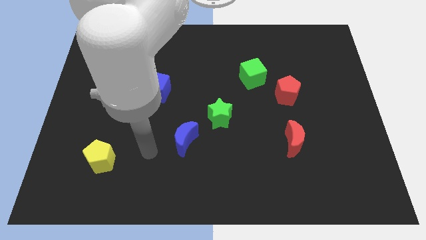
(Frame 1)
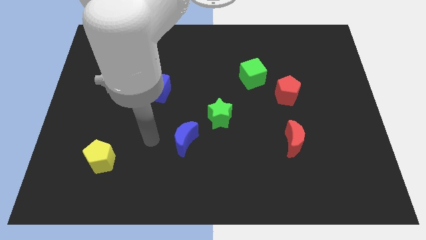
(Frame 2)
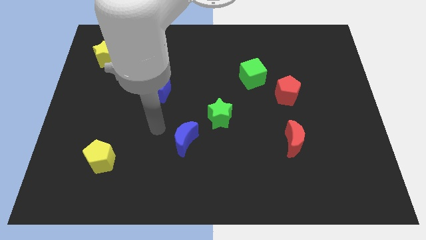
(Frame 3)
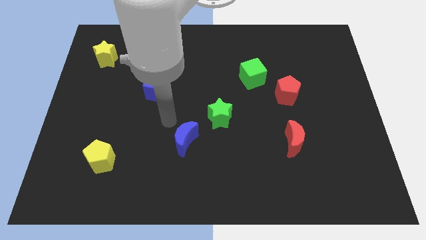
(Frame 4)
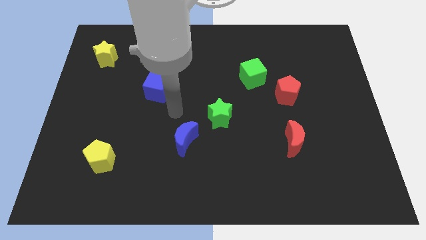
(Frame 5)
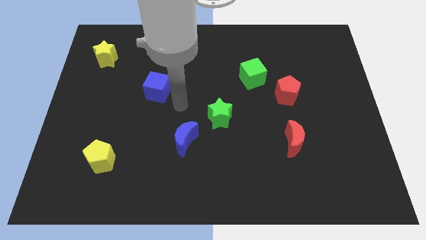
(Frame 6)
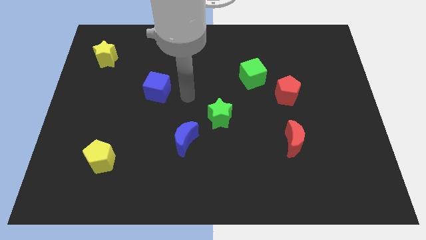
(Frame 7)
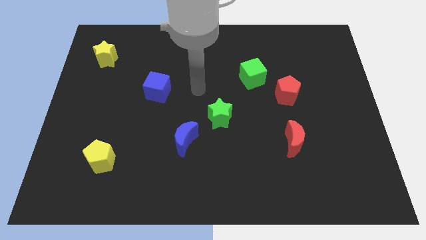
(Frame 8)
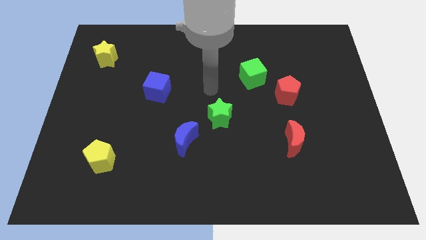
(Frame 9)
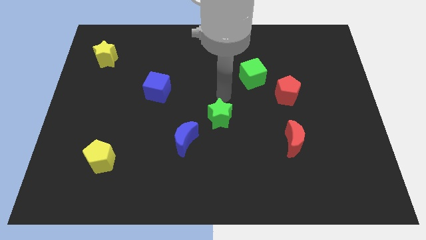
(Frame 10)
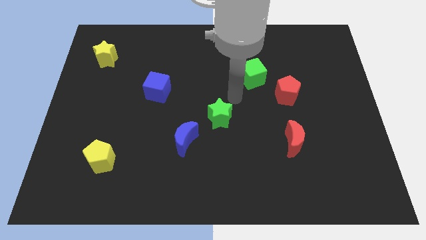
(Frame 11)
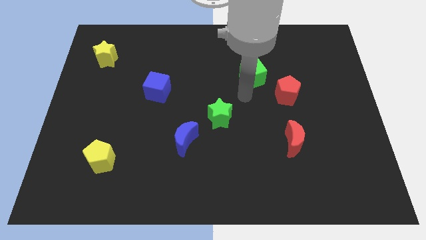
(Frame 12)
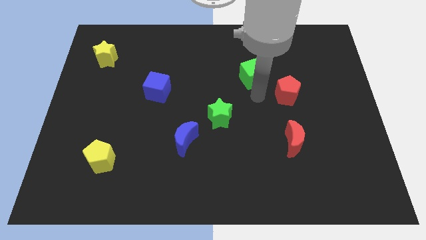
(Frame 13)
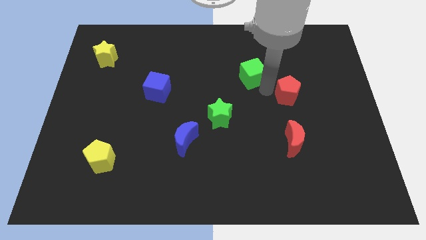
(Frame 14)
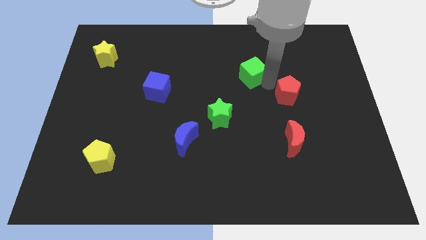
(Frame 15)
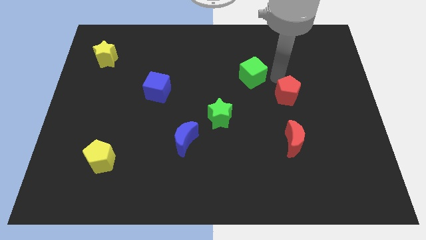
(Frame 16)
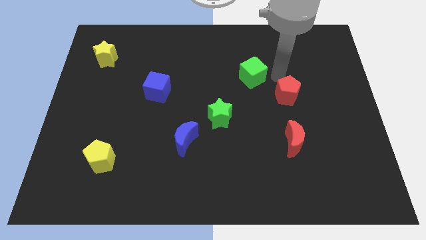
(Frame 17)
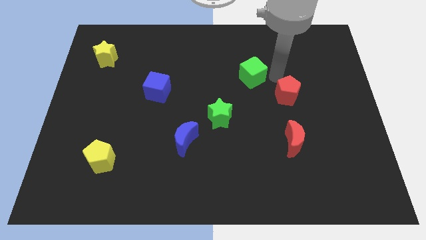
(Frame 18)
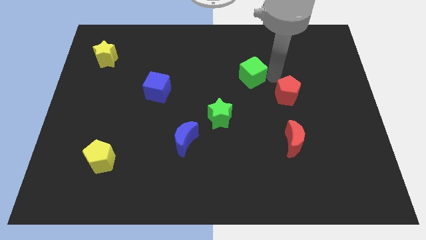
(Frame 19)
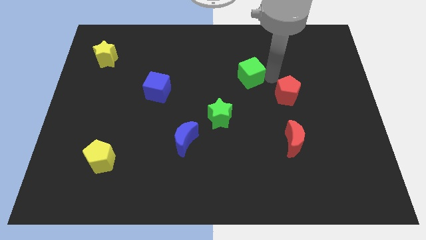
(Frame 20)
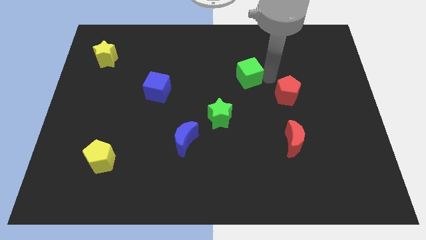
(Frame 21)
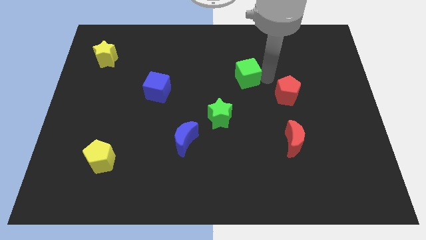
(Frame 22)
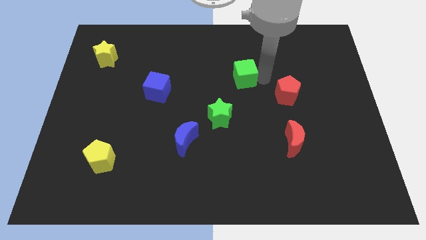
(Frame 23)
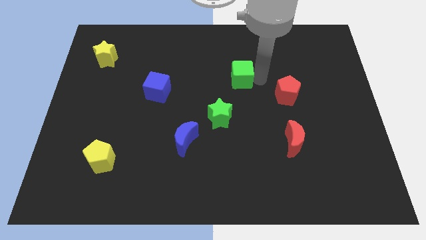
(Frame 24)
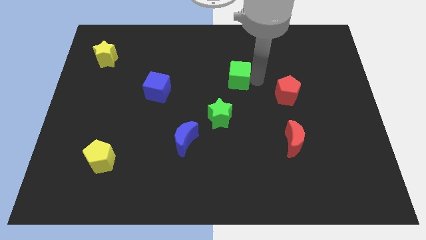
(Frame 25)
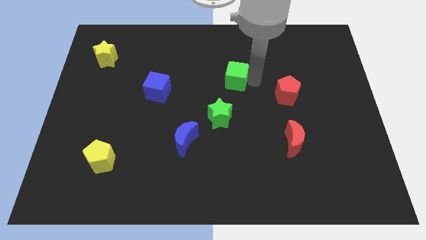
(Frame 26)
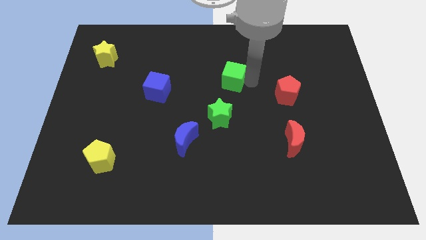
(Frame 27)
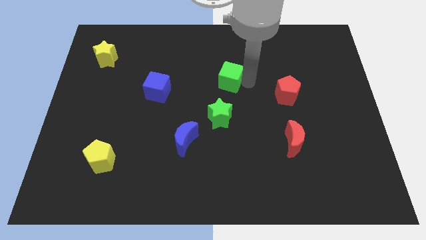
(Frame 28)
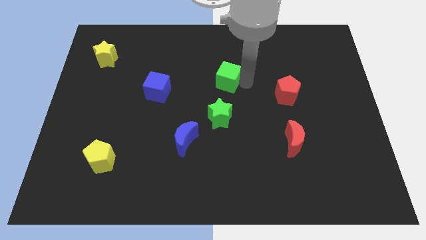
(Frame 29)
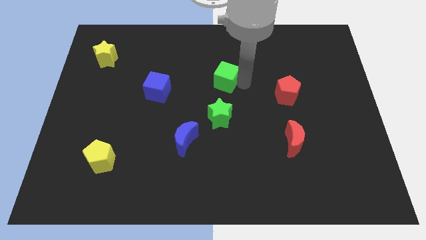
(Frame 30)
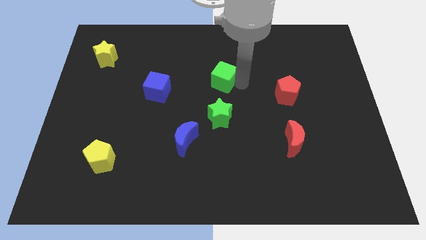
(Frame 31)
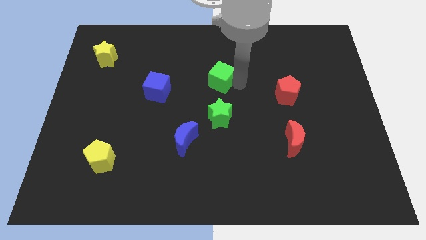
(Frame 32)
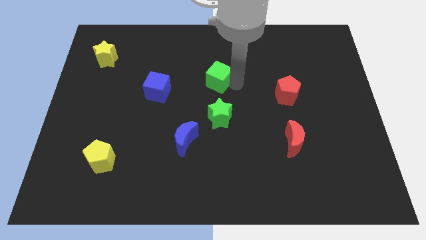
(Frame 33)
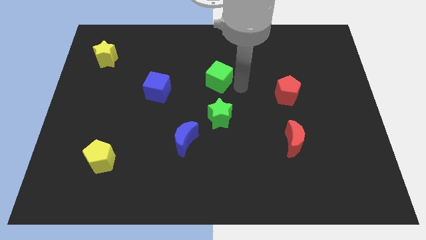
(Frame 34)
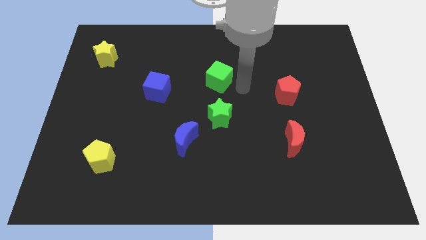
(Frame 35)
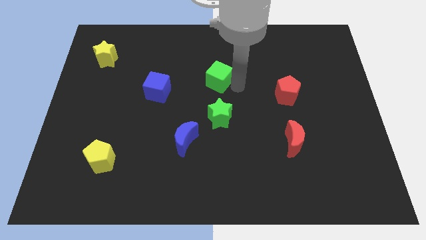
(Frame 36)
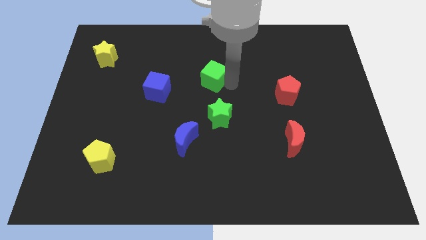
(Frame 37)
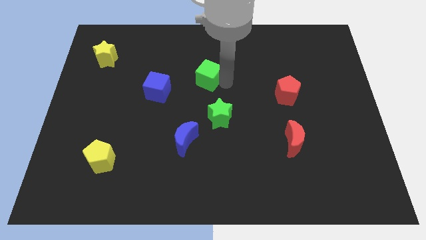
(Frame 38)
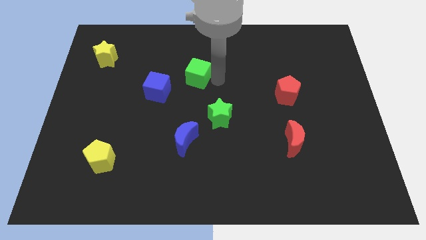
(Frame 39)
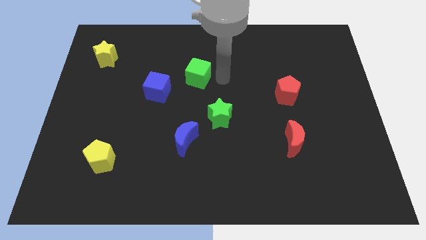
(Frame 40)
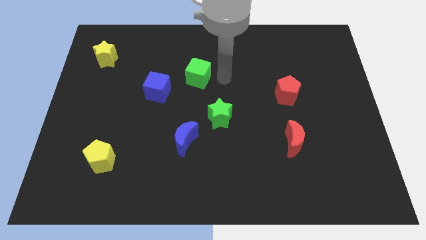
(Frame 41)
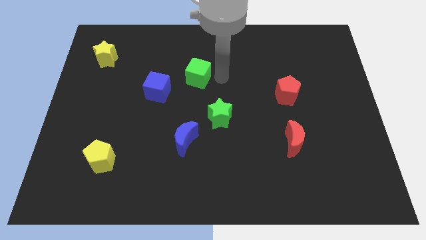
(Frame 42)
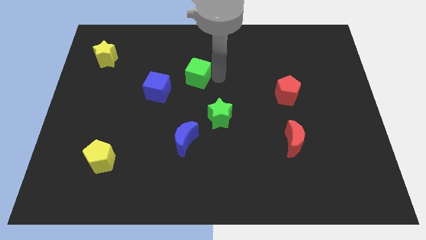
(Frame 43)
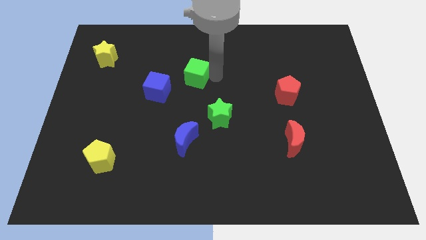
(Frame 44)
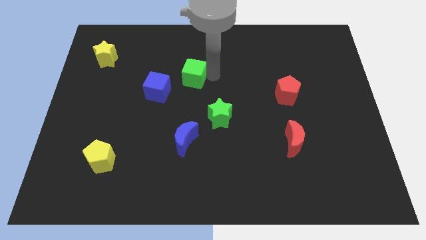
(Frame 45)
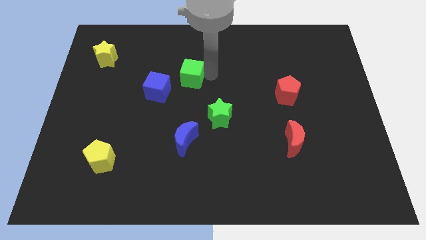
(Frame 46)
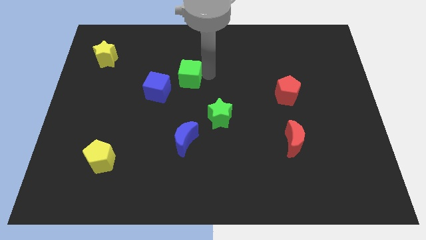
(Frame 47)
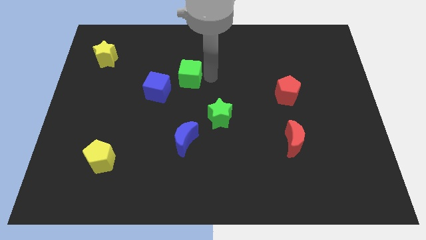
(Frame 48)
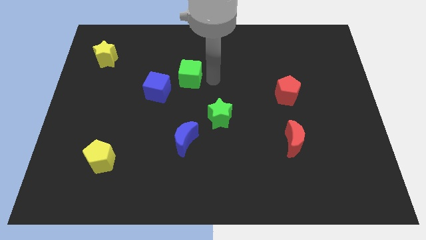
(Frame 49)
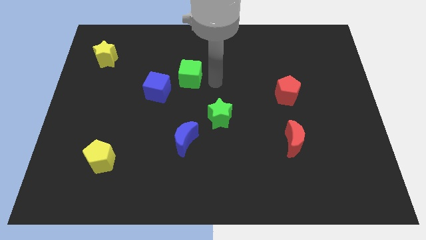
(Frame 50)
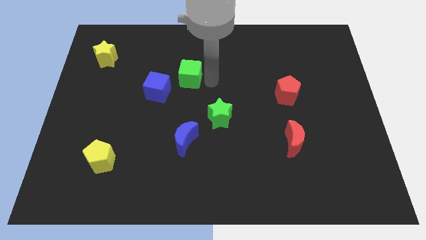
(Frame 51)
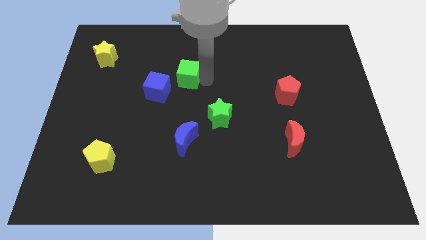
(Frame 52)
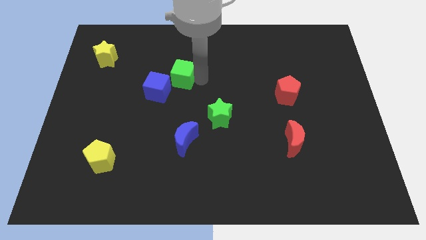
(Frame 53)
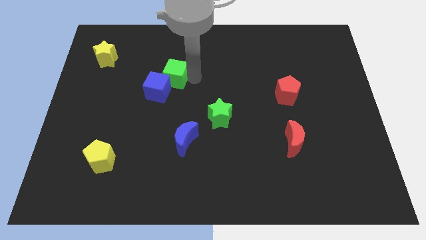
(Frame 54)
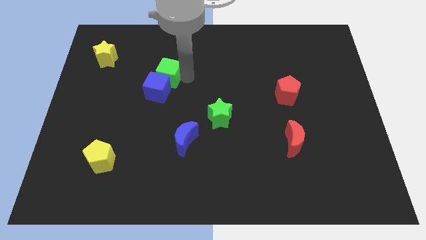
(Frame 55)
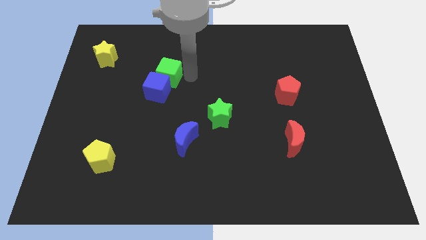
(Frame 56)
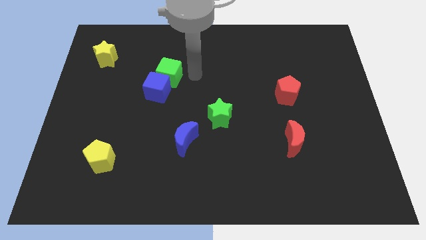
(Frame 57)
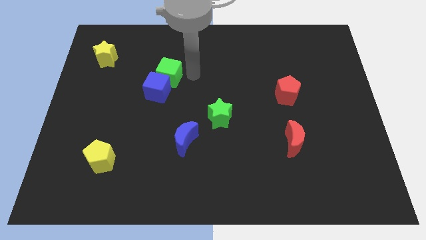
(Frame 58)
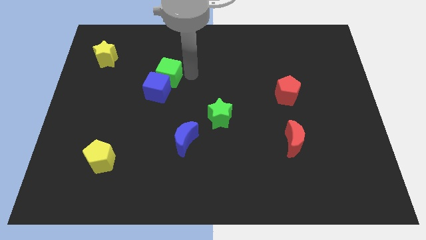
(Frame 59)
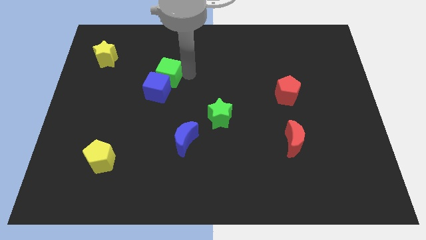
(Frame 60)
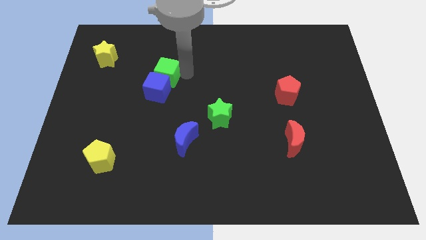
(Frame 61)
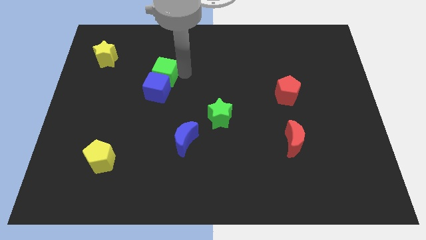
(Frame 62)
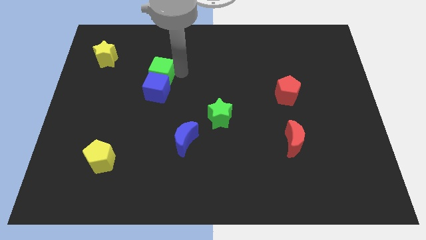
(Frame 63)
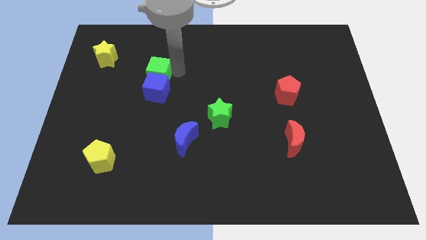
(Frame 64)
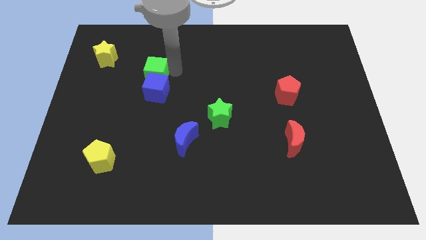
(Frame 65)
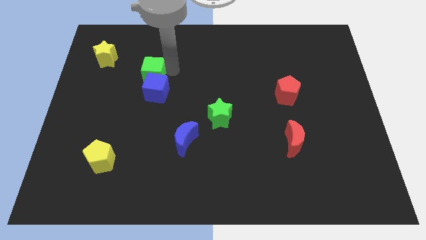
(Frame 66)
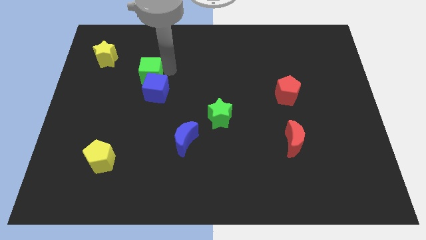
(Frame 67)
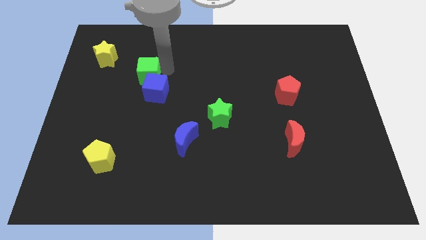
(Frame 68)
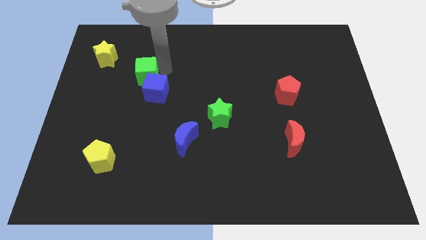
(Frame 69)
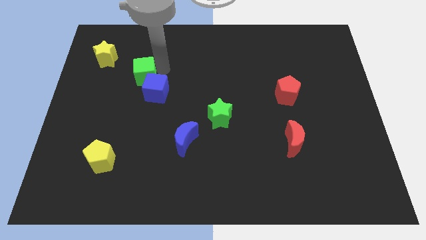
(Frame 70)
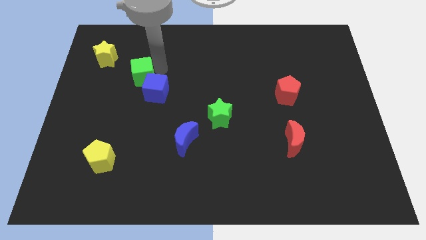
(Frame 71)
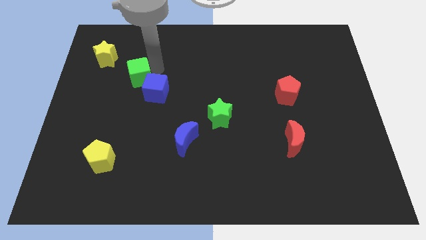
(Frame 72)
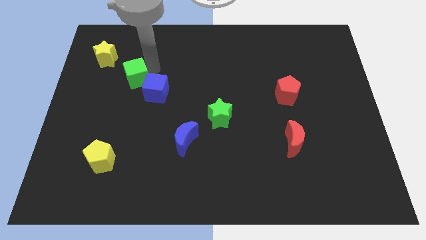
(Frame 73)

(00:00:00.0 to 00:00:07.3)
slide the green cube to the left of the blue cube
